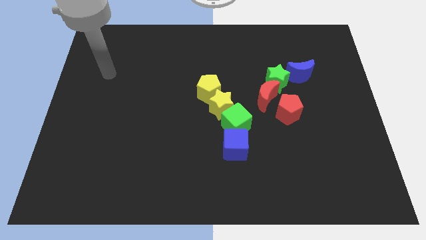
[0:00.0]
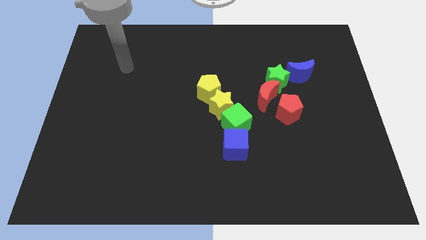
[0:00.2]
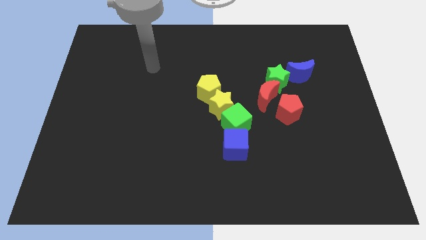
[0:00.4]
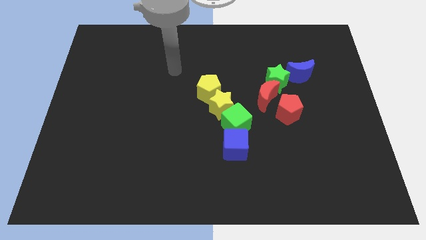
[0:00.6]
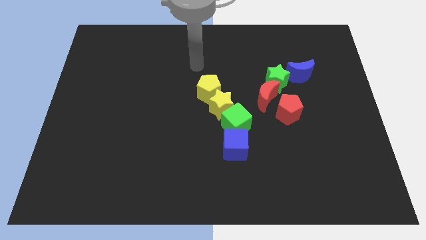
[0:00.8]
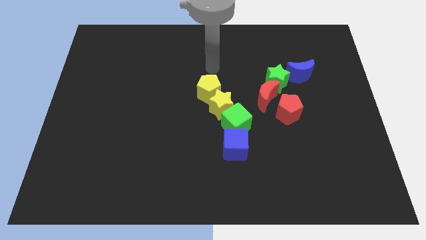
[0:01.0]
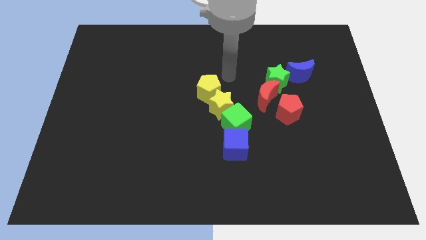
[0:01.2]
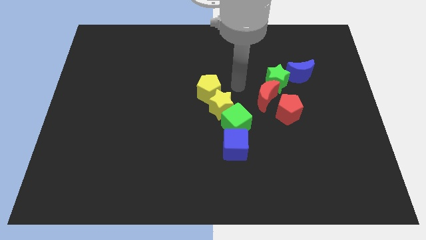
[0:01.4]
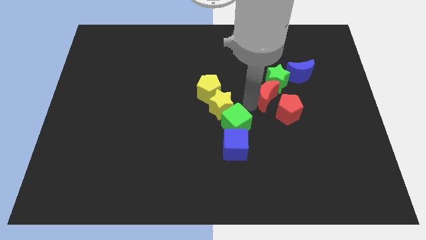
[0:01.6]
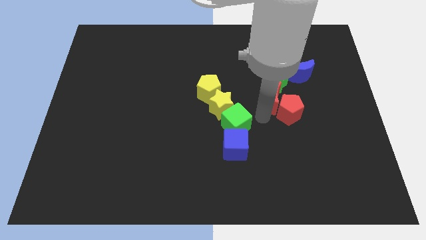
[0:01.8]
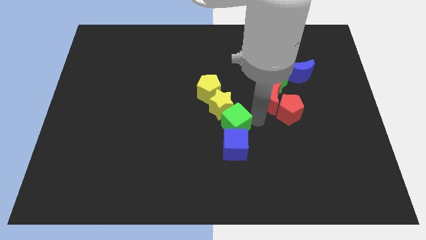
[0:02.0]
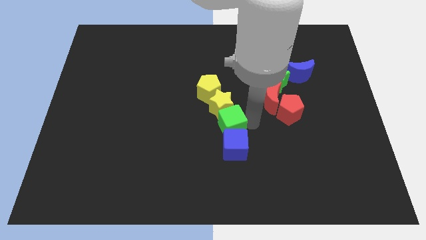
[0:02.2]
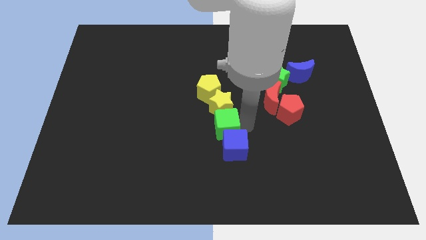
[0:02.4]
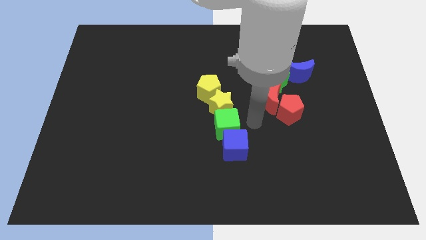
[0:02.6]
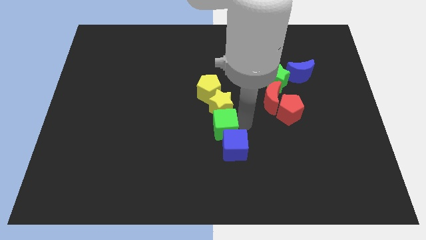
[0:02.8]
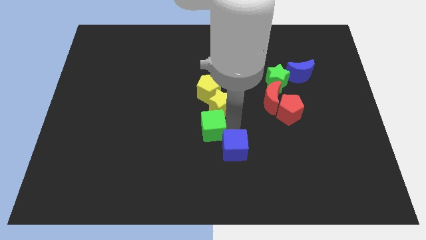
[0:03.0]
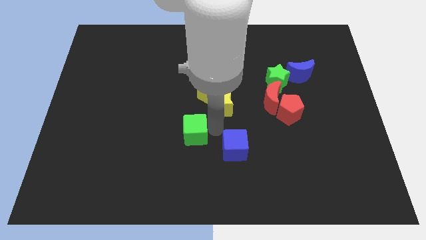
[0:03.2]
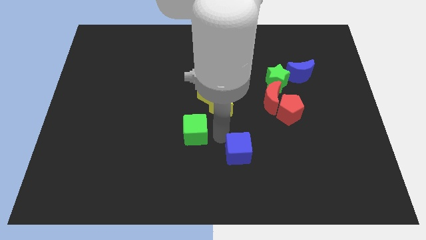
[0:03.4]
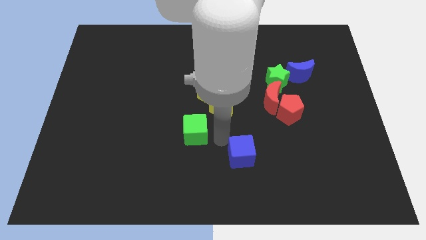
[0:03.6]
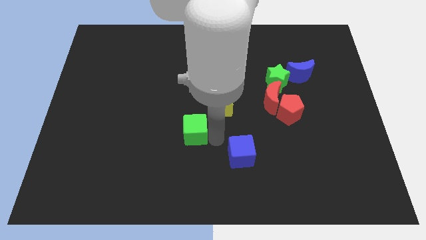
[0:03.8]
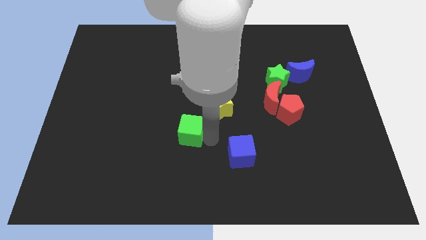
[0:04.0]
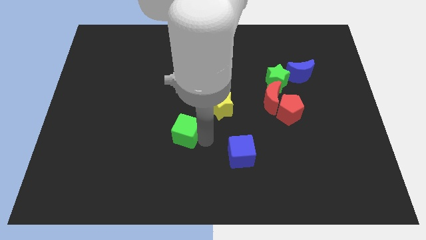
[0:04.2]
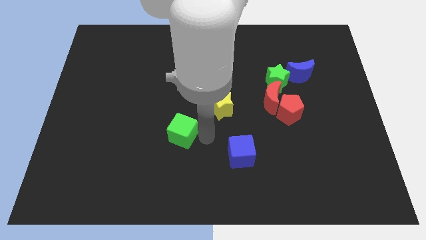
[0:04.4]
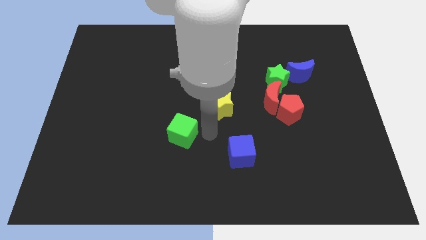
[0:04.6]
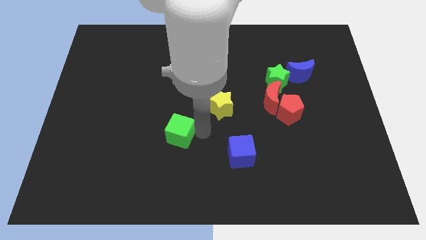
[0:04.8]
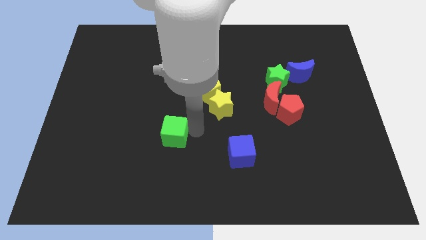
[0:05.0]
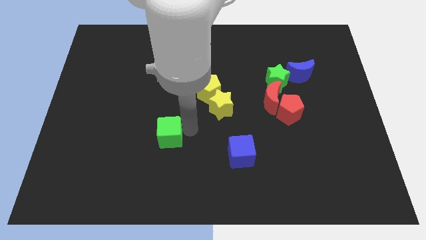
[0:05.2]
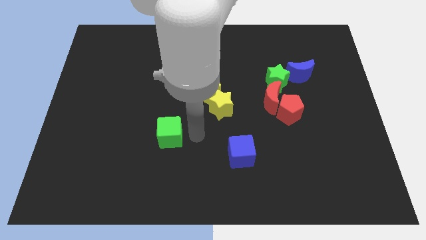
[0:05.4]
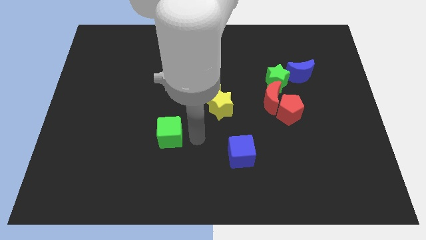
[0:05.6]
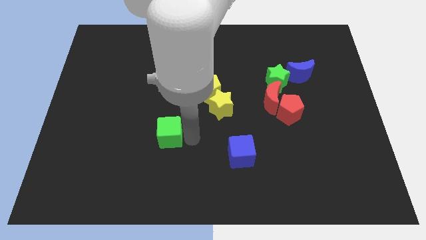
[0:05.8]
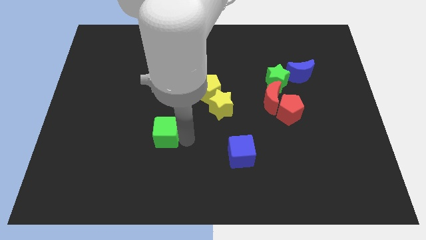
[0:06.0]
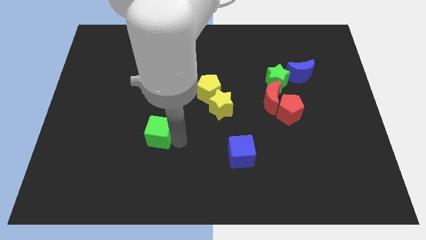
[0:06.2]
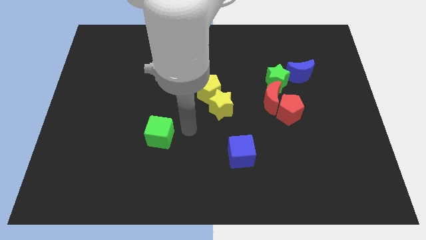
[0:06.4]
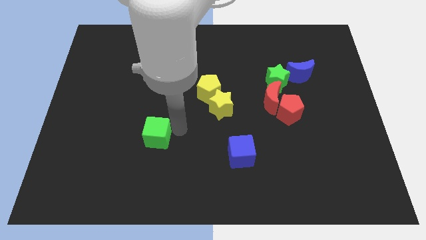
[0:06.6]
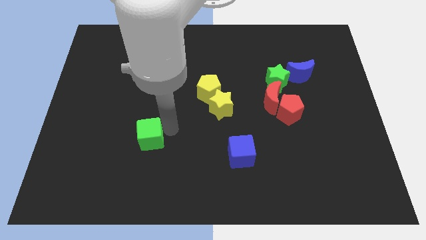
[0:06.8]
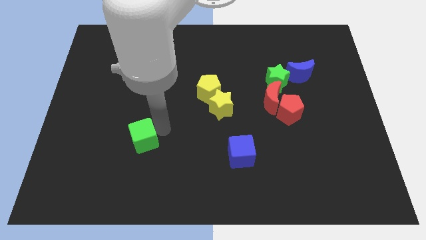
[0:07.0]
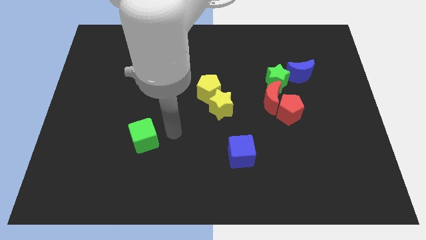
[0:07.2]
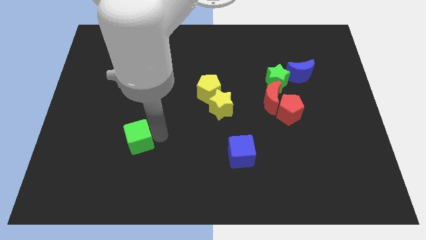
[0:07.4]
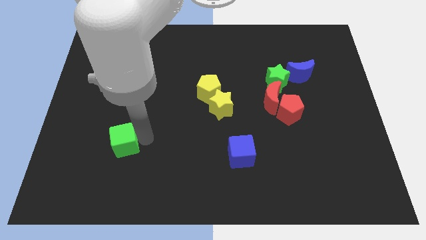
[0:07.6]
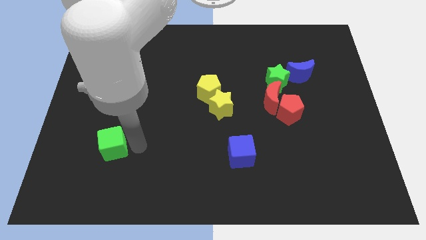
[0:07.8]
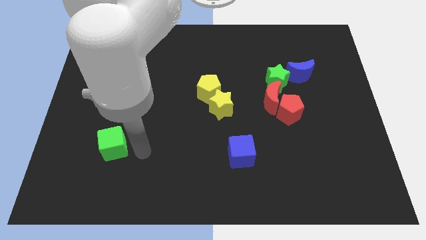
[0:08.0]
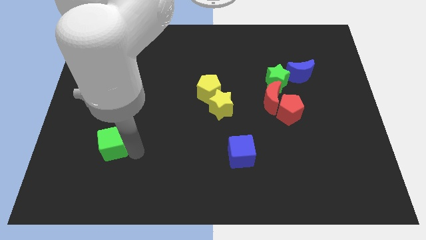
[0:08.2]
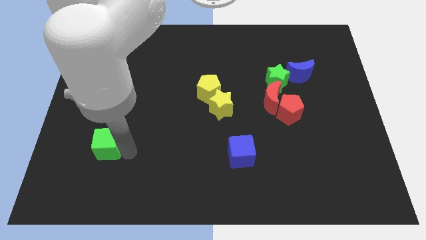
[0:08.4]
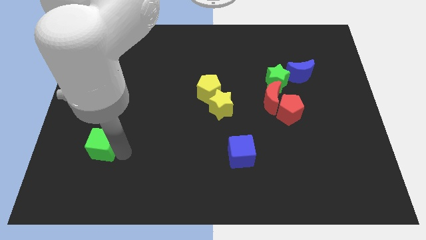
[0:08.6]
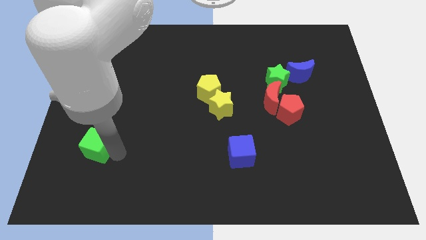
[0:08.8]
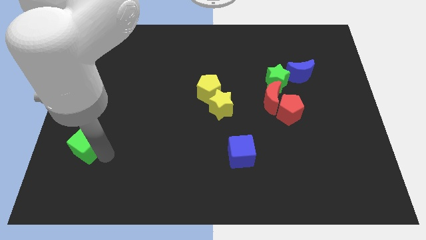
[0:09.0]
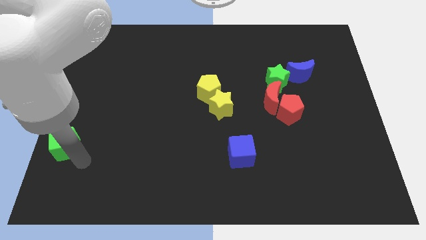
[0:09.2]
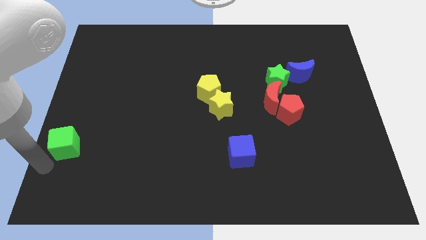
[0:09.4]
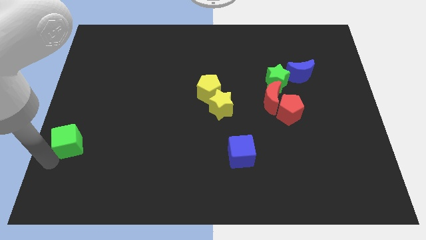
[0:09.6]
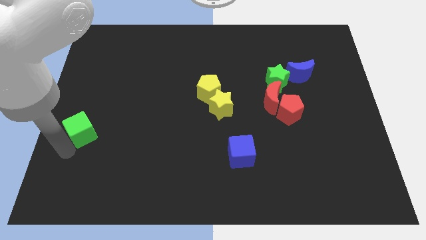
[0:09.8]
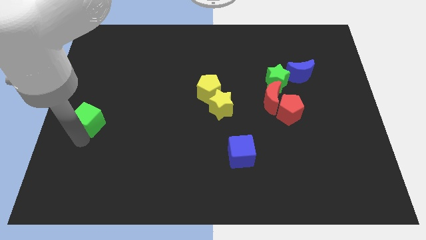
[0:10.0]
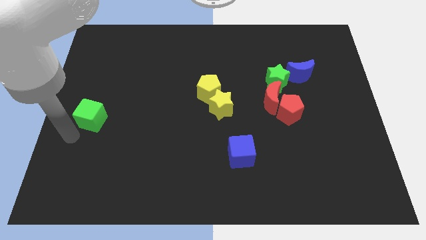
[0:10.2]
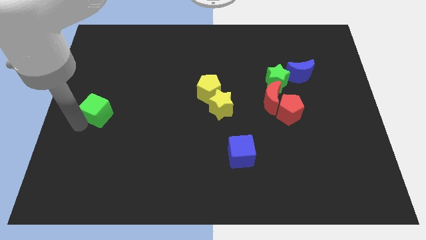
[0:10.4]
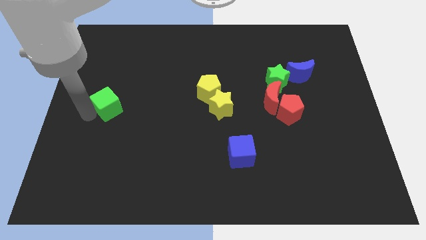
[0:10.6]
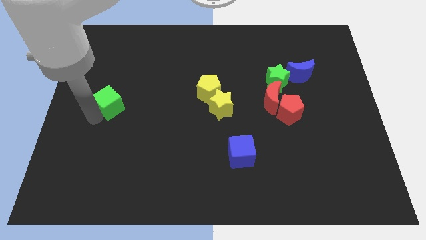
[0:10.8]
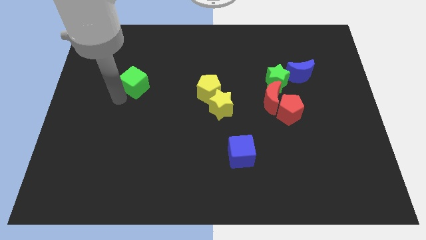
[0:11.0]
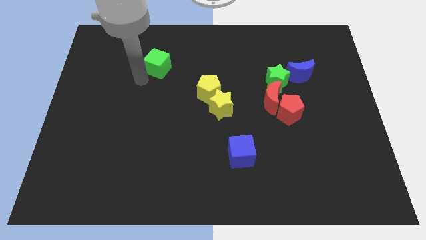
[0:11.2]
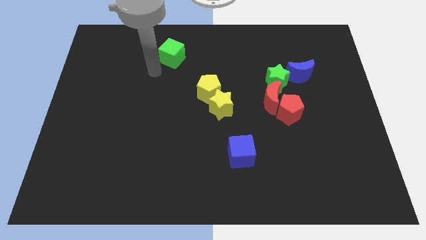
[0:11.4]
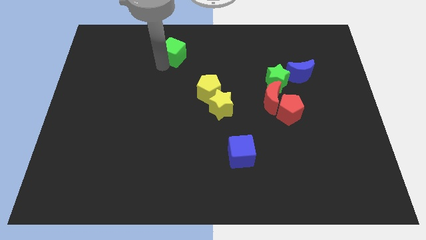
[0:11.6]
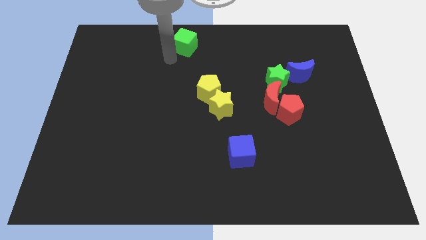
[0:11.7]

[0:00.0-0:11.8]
put the green cube to the top
